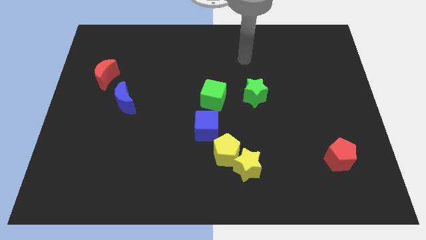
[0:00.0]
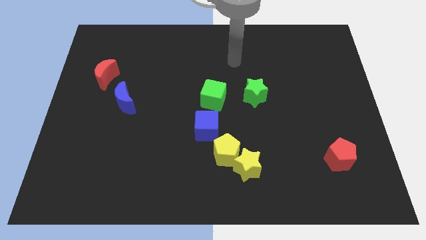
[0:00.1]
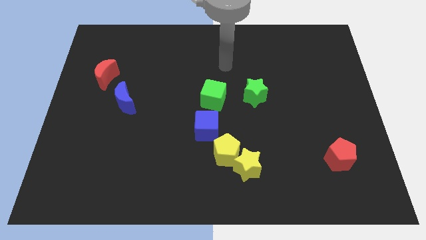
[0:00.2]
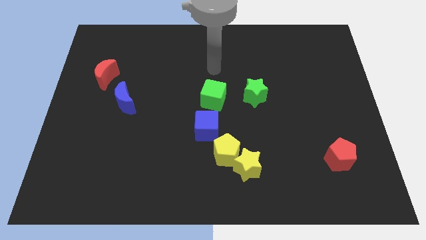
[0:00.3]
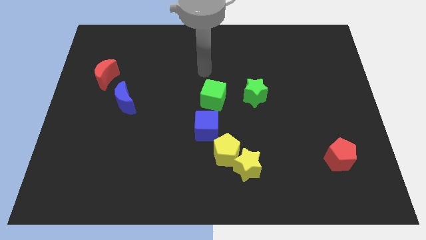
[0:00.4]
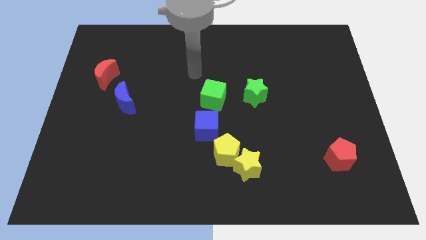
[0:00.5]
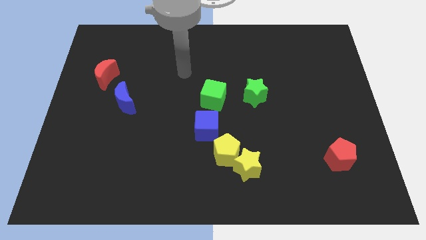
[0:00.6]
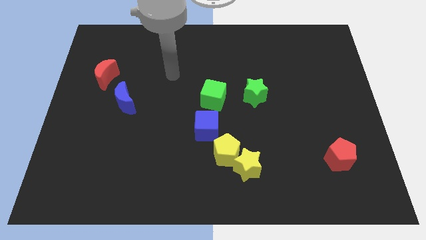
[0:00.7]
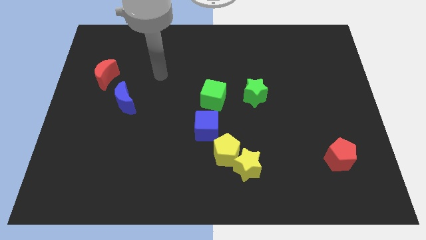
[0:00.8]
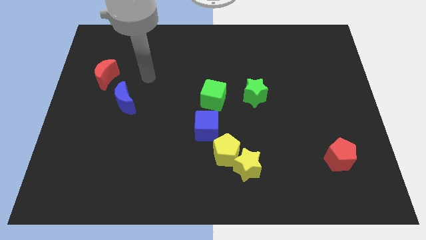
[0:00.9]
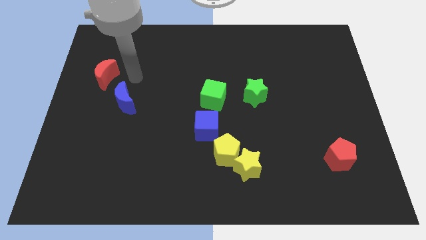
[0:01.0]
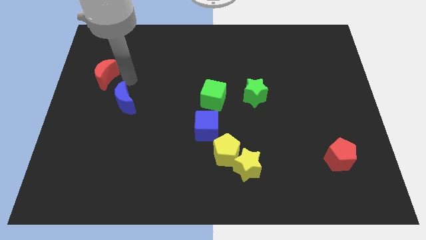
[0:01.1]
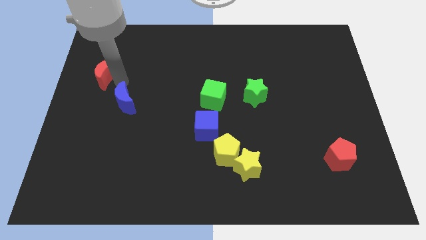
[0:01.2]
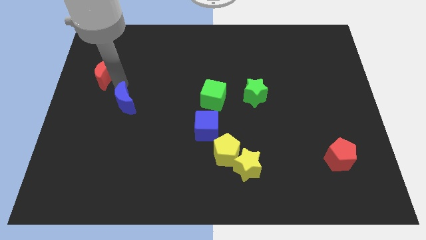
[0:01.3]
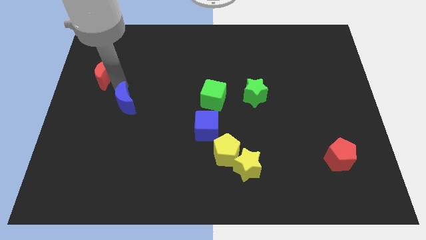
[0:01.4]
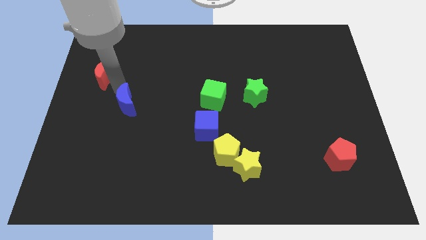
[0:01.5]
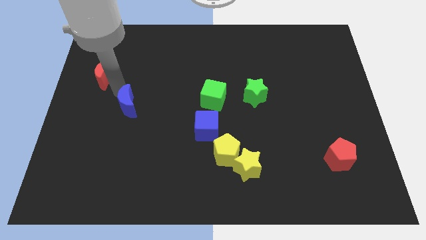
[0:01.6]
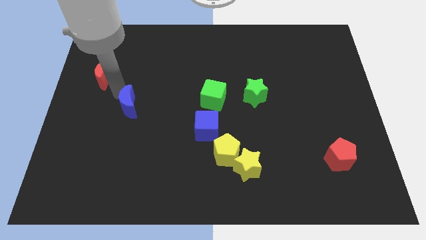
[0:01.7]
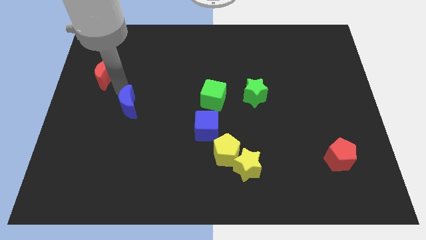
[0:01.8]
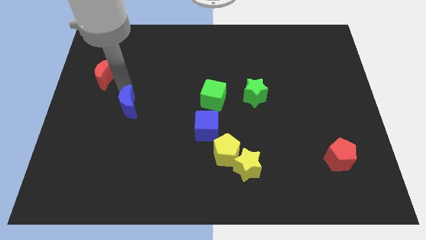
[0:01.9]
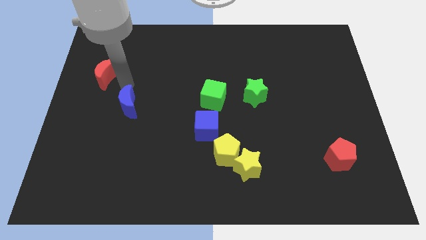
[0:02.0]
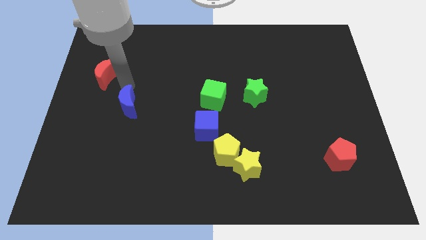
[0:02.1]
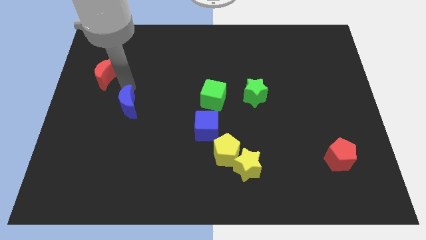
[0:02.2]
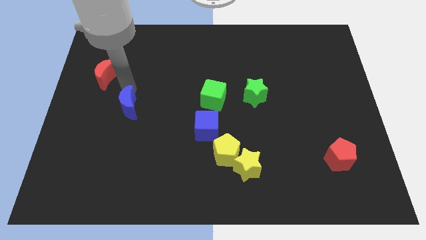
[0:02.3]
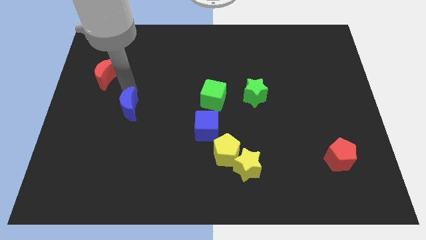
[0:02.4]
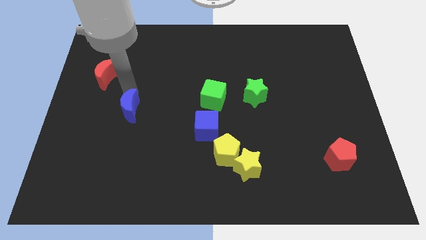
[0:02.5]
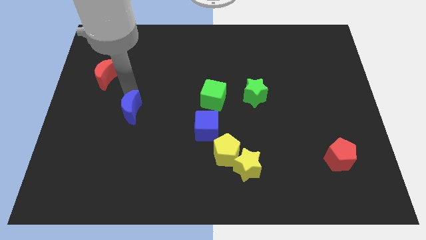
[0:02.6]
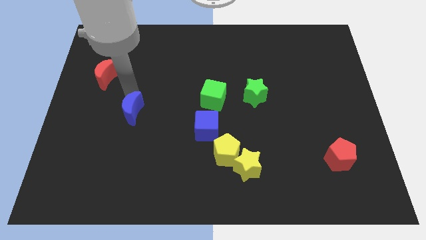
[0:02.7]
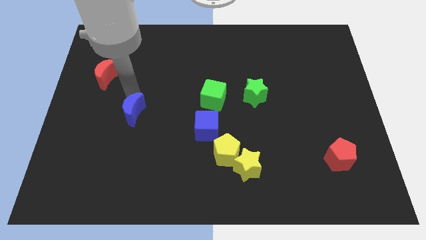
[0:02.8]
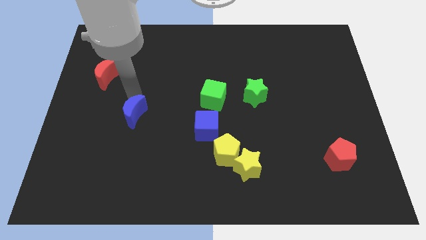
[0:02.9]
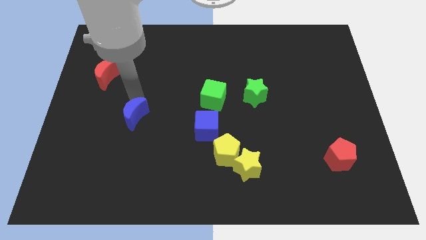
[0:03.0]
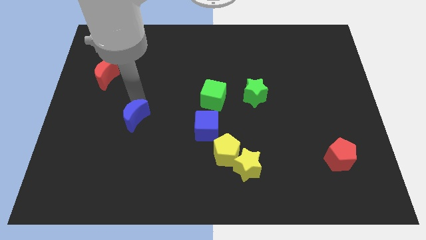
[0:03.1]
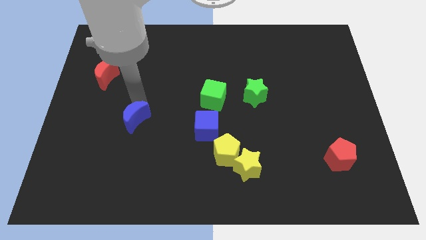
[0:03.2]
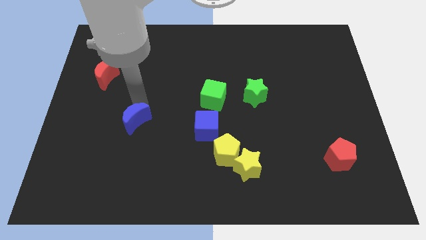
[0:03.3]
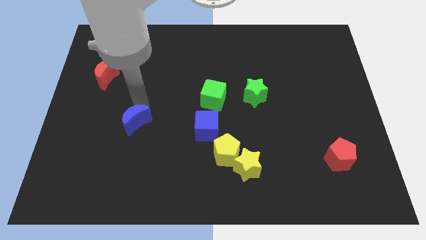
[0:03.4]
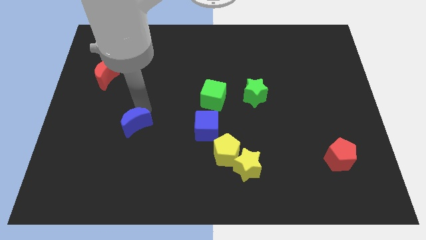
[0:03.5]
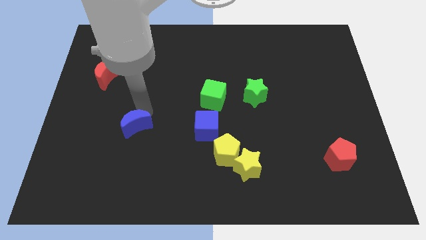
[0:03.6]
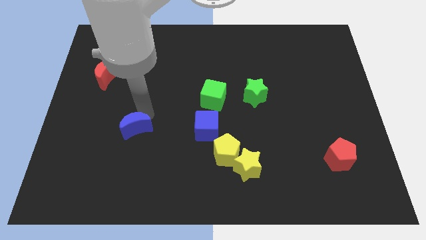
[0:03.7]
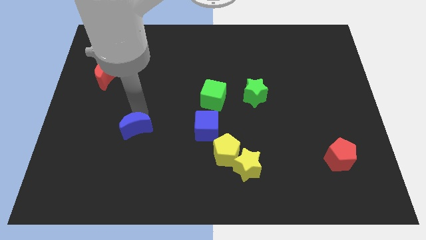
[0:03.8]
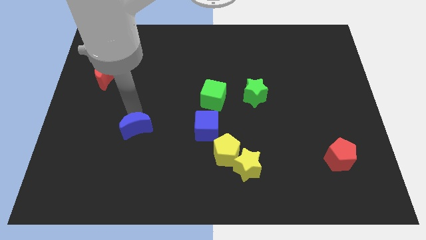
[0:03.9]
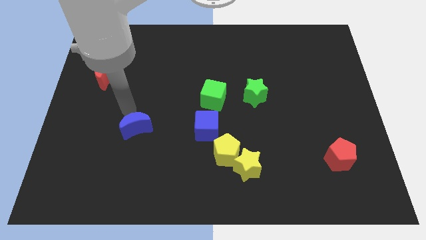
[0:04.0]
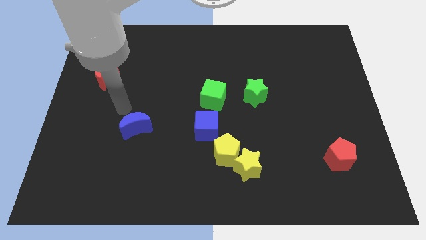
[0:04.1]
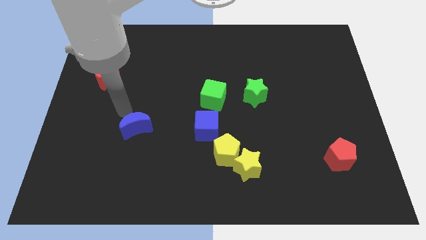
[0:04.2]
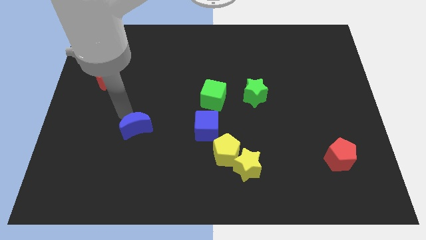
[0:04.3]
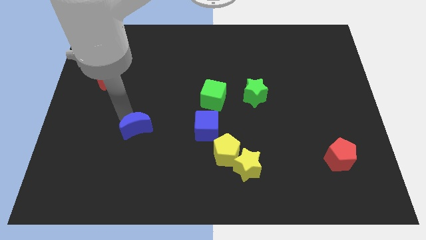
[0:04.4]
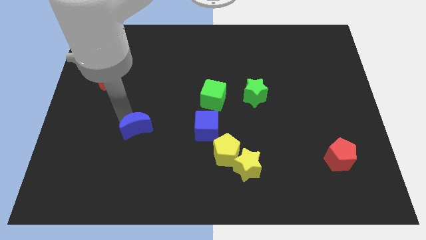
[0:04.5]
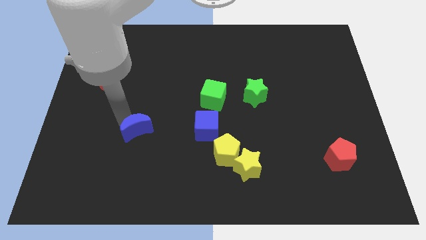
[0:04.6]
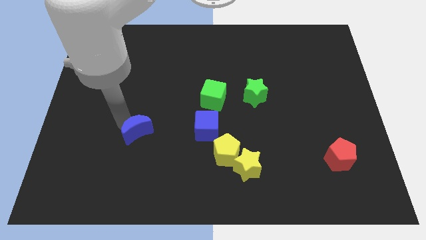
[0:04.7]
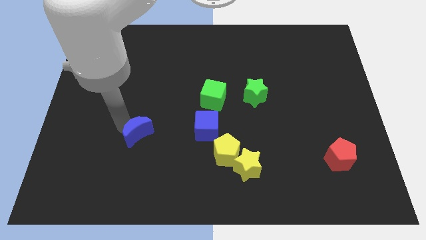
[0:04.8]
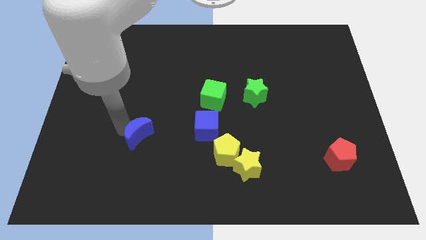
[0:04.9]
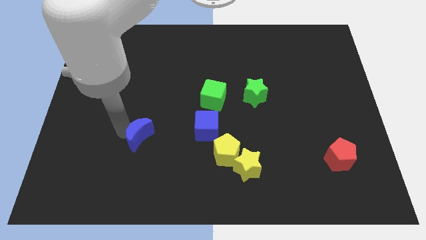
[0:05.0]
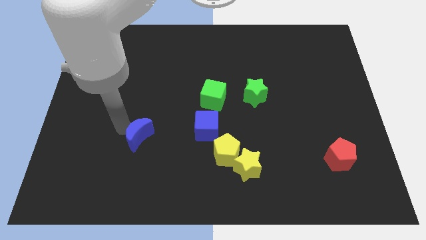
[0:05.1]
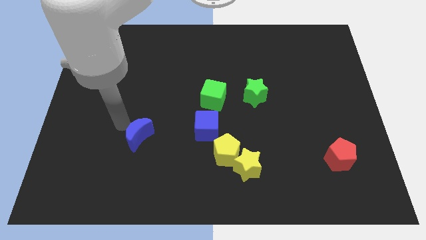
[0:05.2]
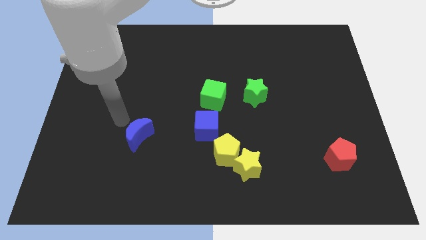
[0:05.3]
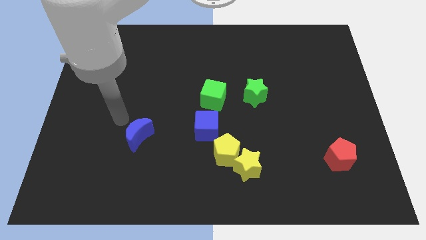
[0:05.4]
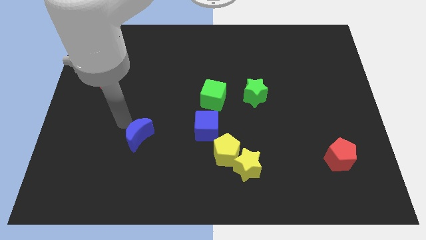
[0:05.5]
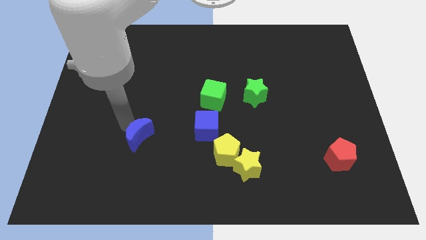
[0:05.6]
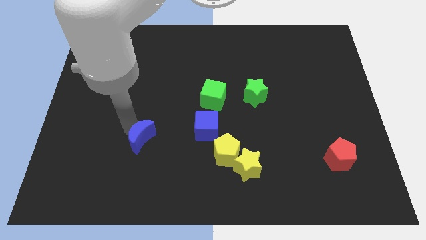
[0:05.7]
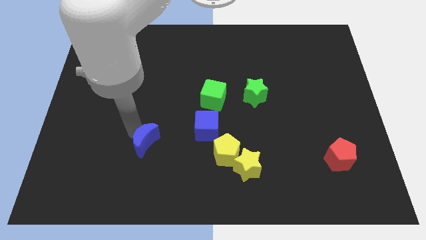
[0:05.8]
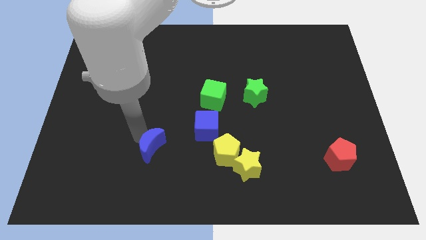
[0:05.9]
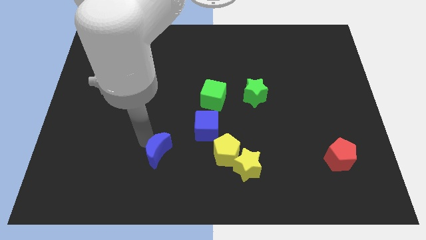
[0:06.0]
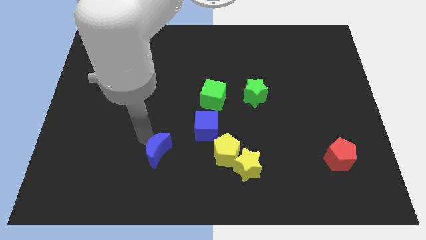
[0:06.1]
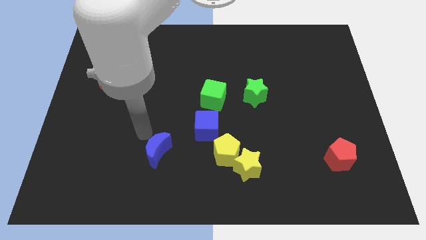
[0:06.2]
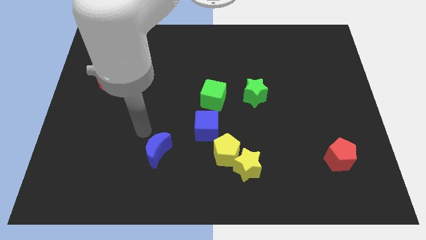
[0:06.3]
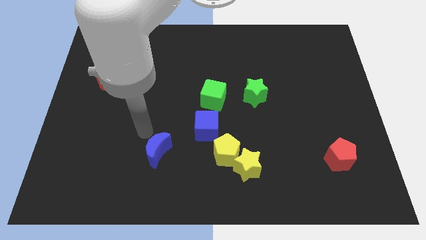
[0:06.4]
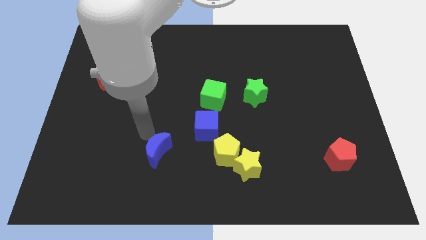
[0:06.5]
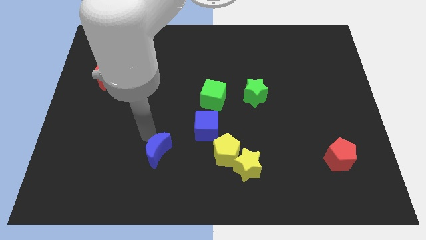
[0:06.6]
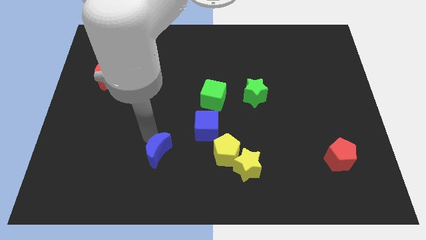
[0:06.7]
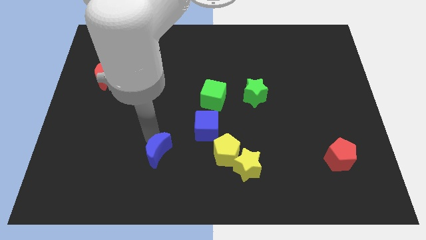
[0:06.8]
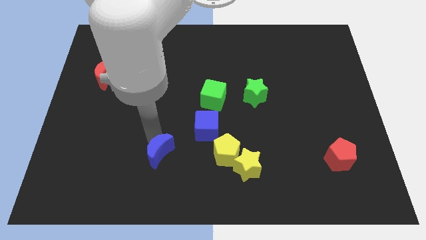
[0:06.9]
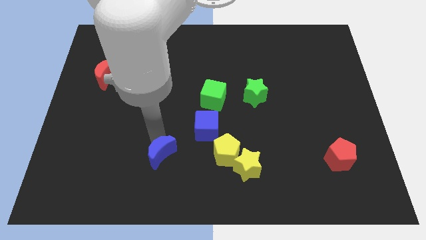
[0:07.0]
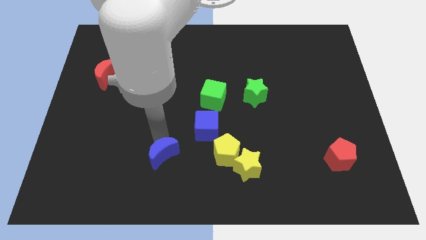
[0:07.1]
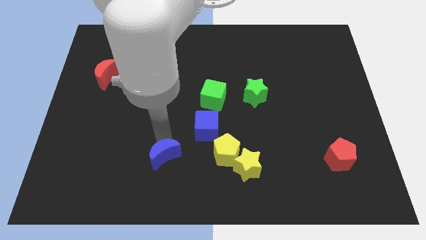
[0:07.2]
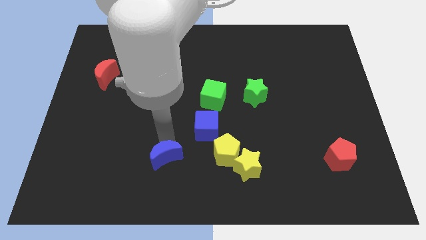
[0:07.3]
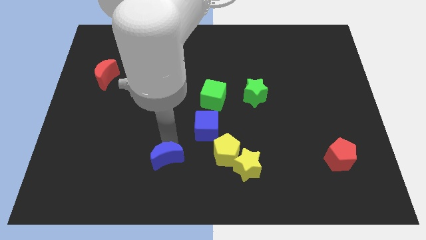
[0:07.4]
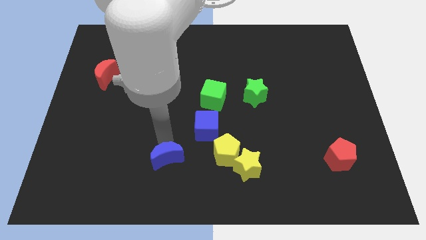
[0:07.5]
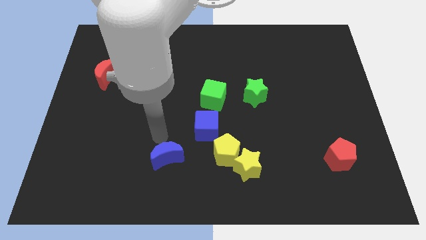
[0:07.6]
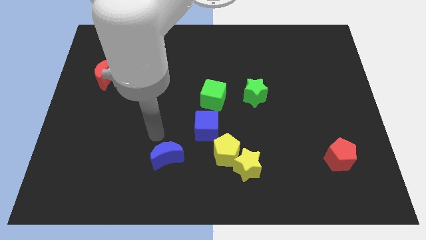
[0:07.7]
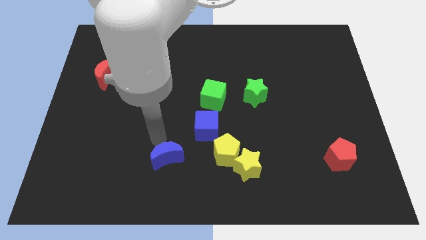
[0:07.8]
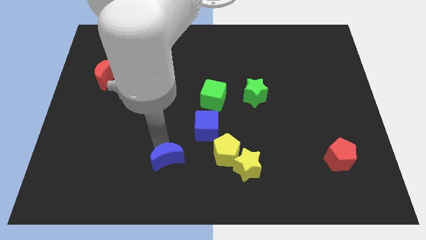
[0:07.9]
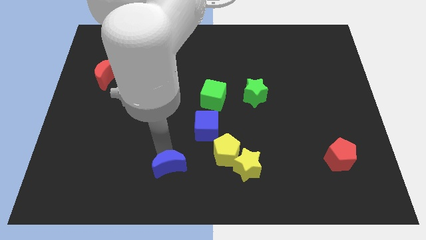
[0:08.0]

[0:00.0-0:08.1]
put the blue moon to the bottom side
